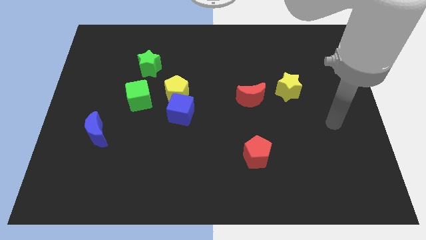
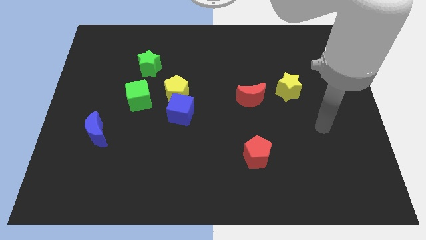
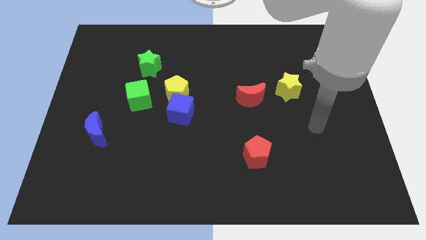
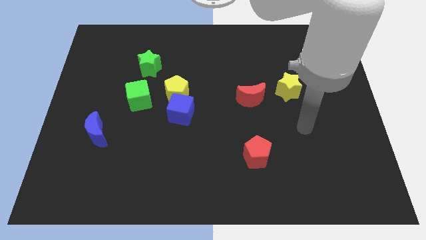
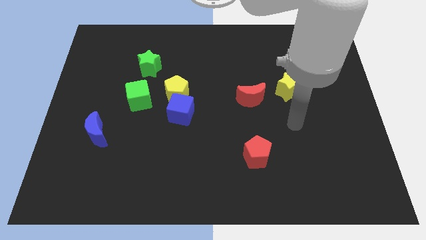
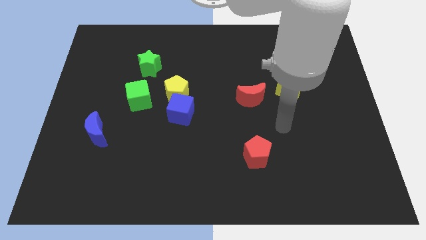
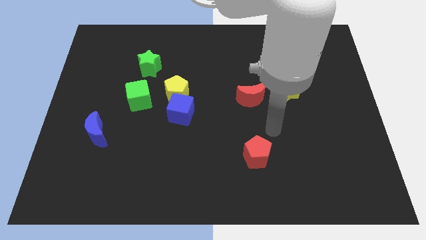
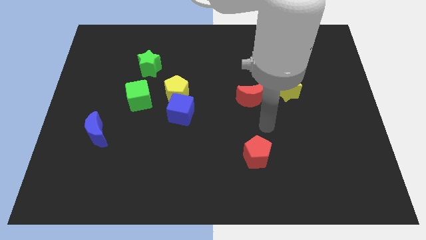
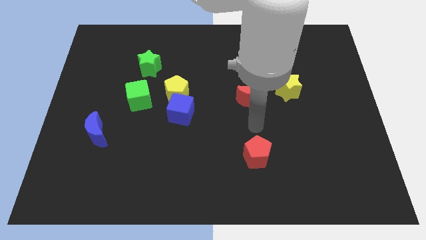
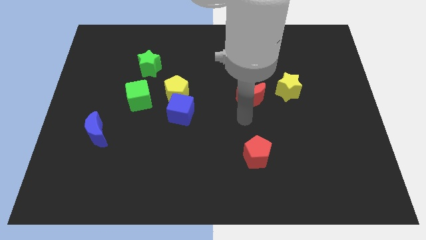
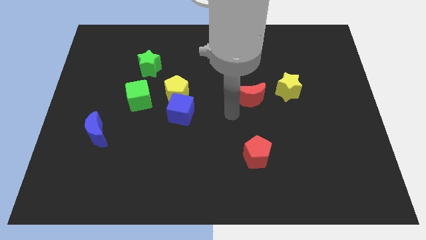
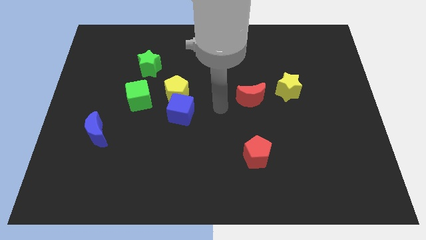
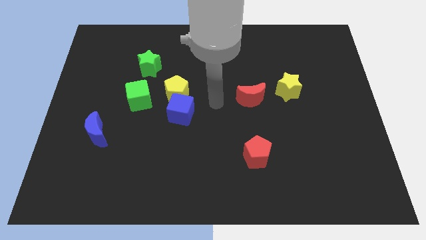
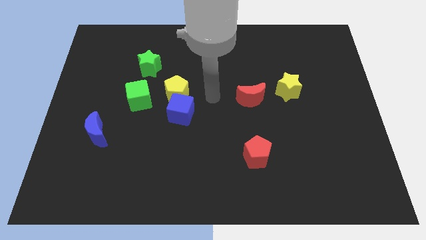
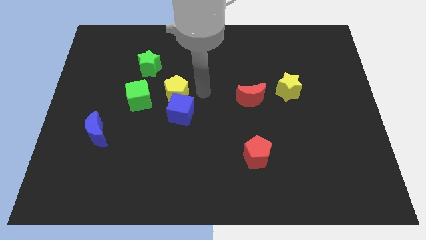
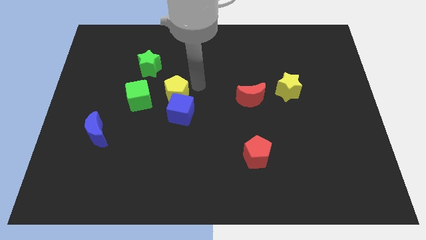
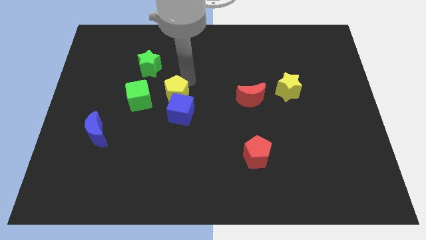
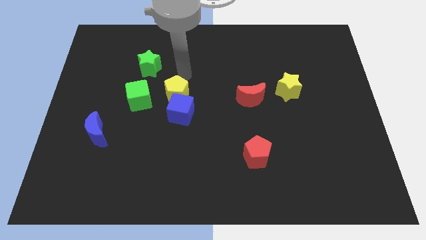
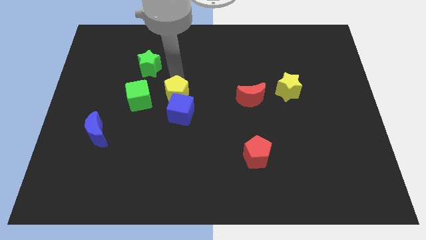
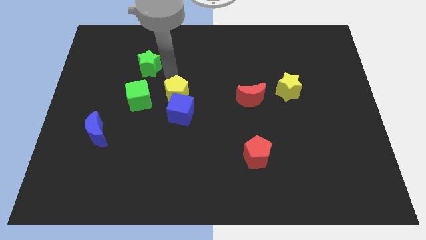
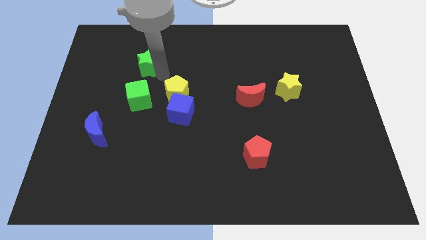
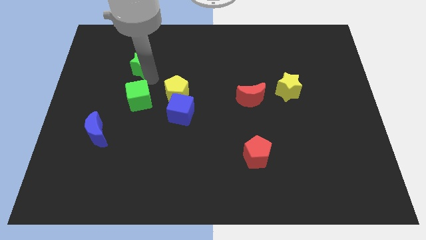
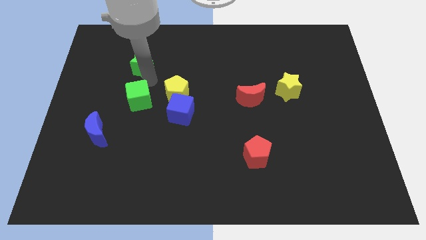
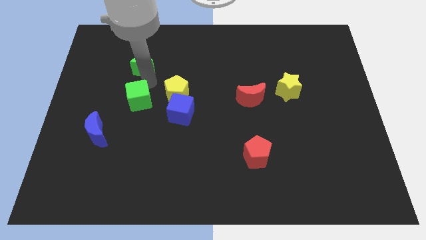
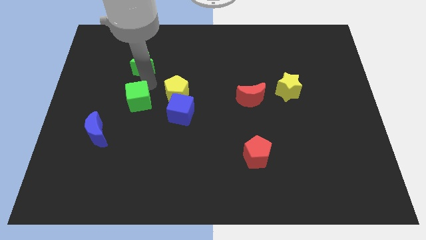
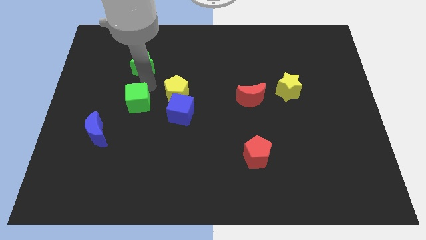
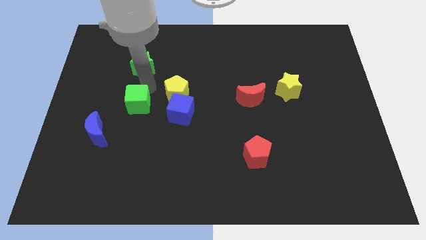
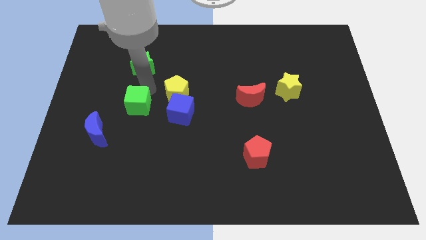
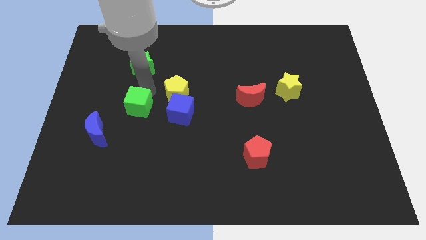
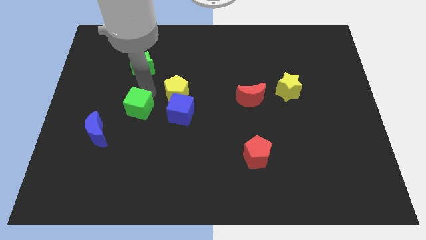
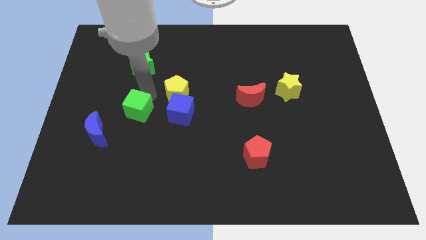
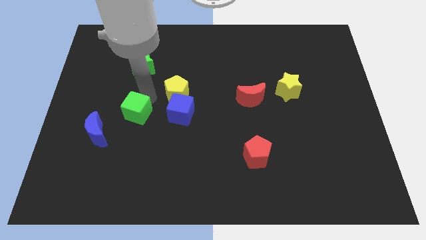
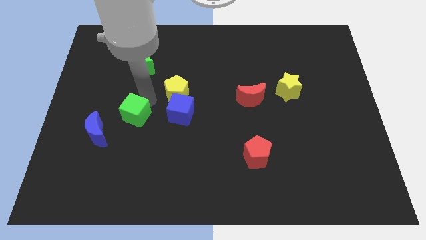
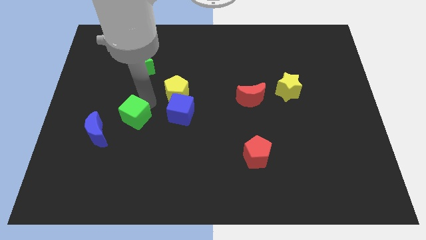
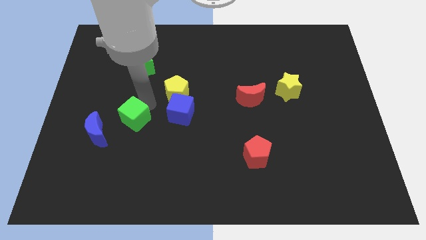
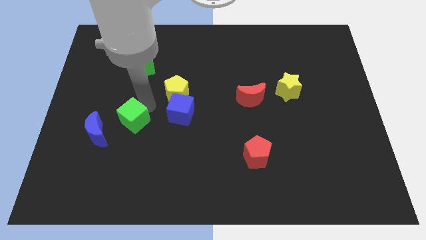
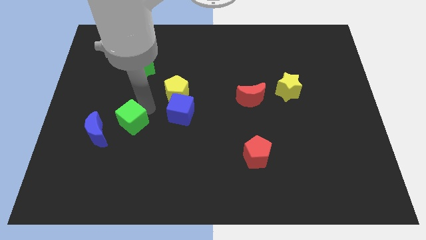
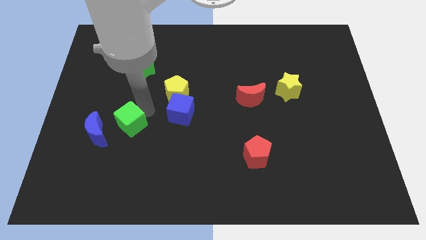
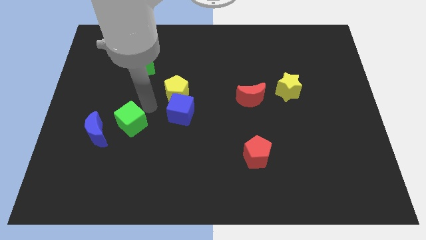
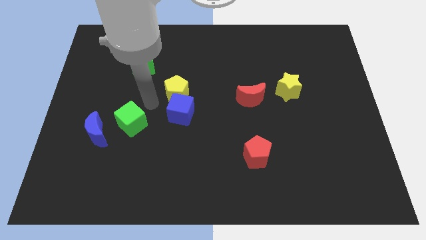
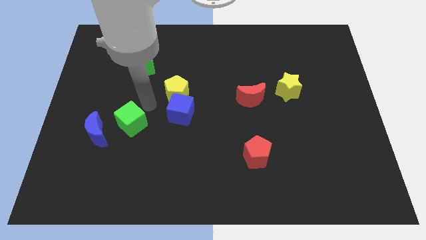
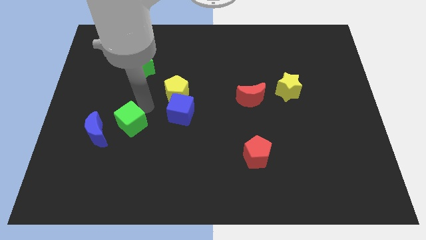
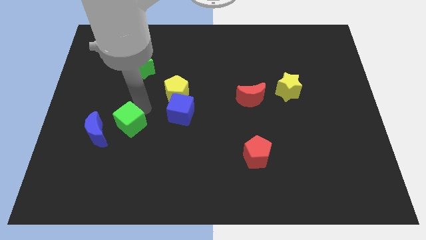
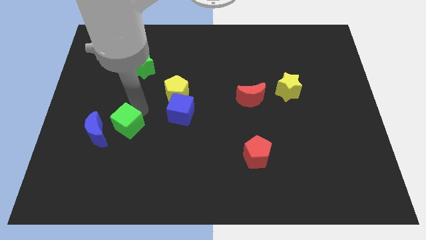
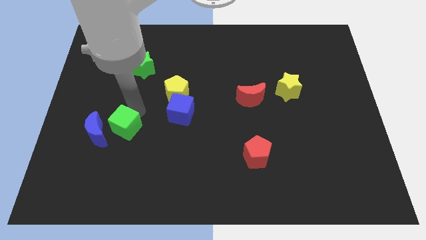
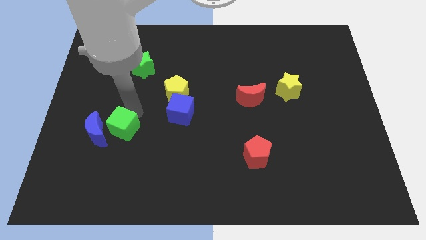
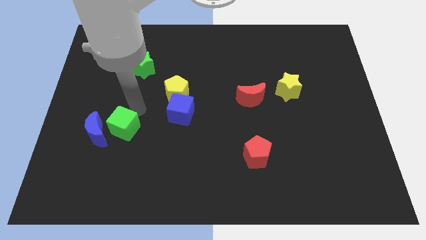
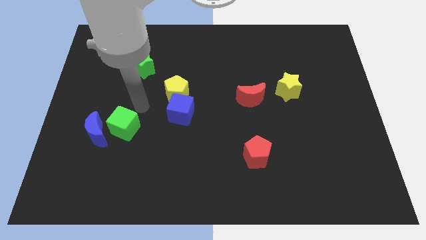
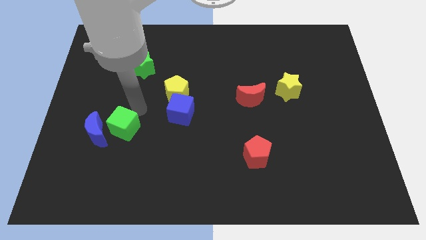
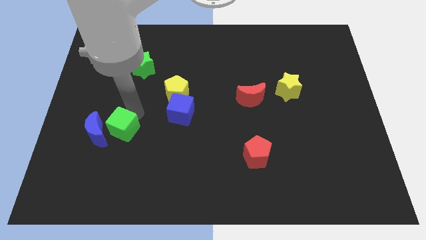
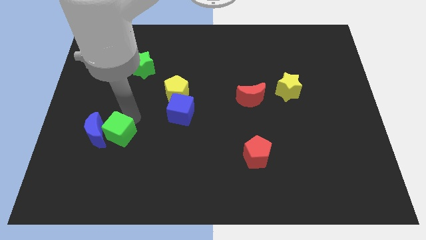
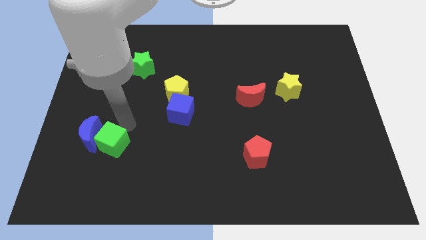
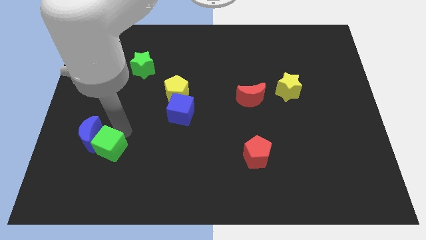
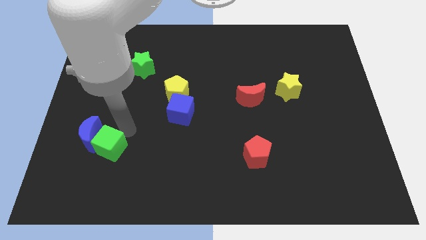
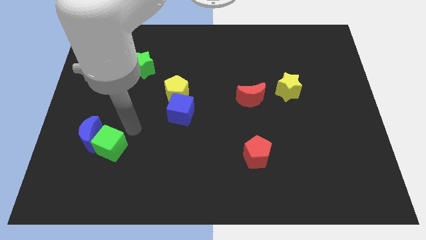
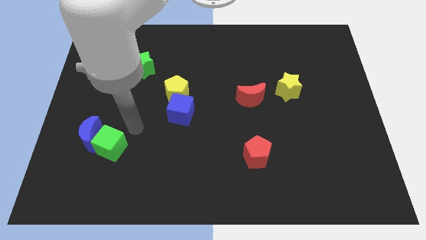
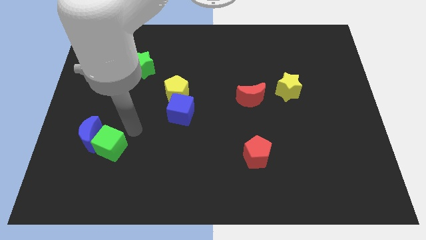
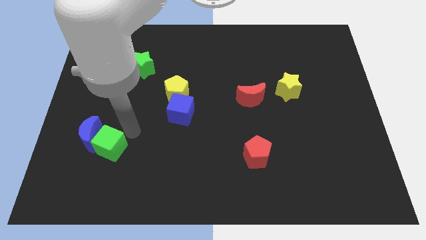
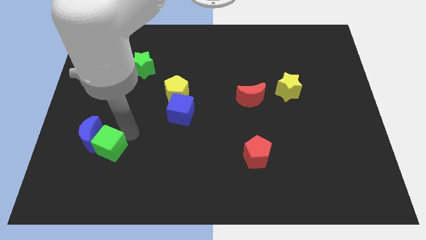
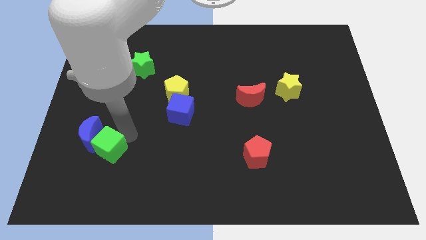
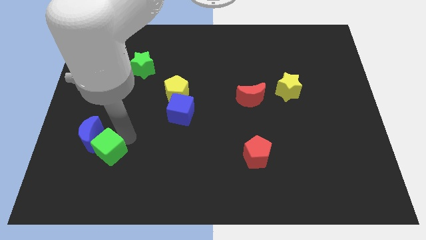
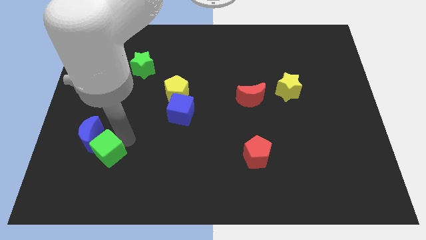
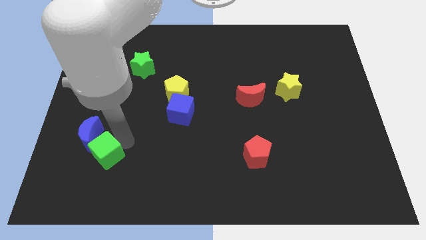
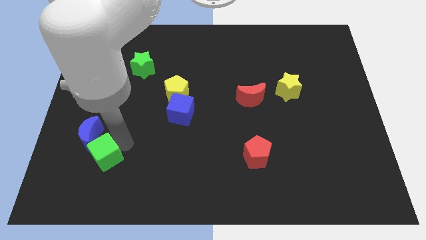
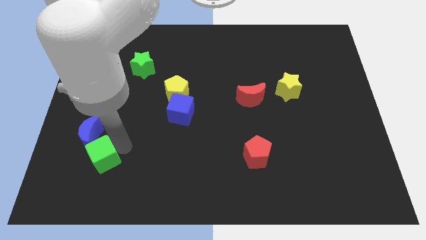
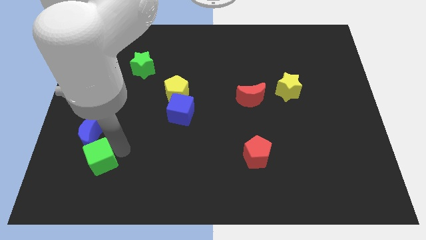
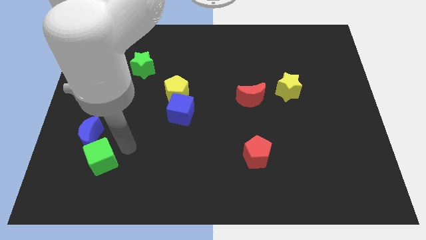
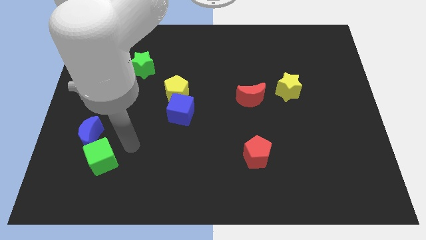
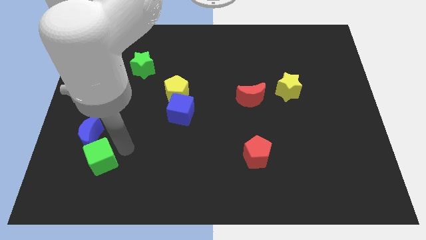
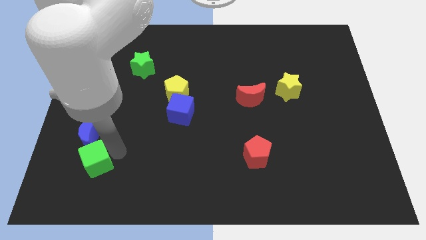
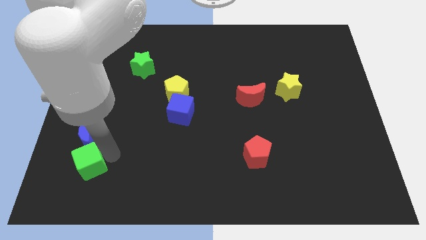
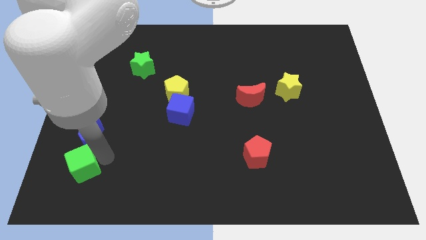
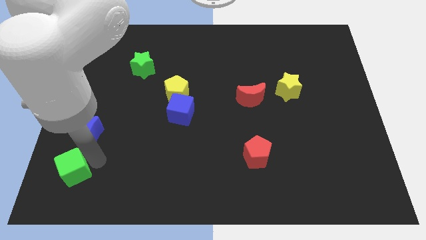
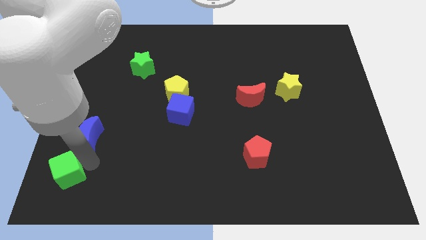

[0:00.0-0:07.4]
move the green cube to the bottom left corner
